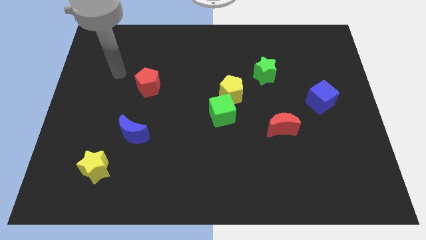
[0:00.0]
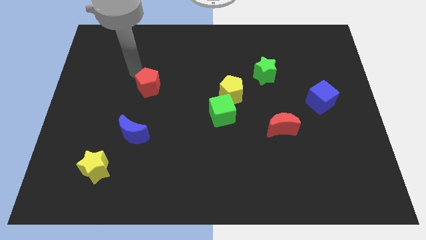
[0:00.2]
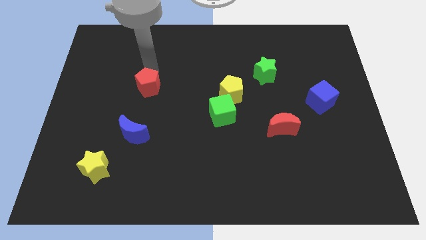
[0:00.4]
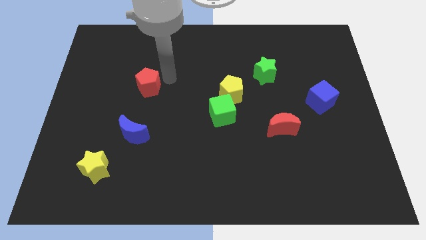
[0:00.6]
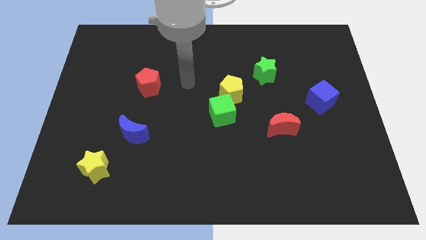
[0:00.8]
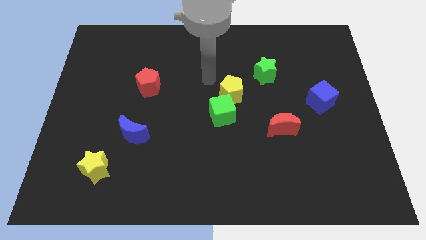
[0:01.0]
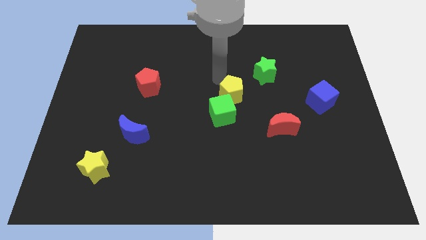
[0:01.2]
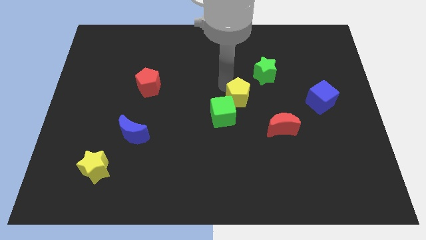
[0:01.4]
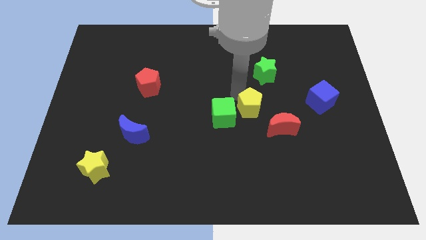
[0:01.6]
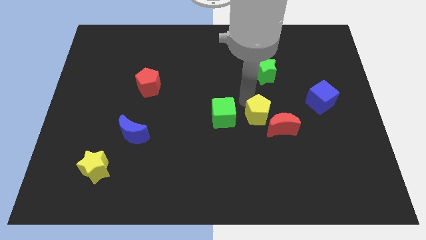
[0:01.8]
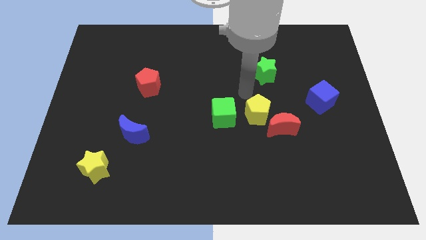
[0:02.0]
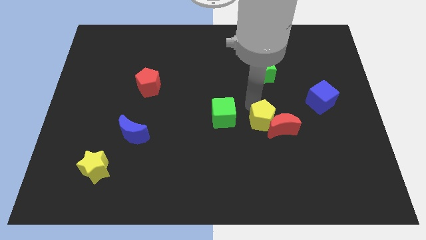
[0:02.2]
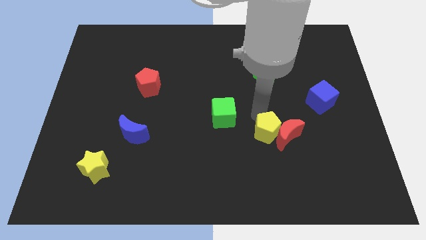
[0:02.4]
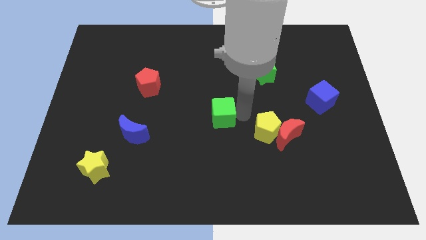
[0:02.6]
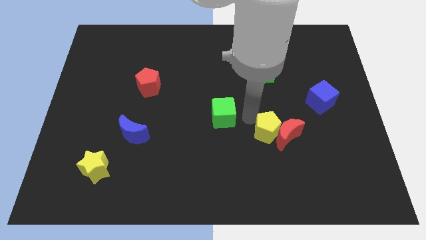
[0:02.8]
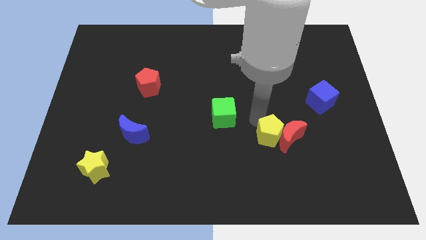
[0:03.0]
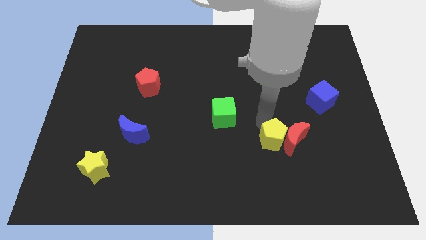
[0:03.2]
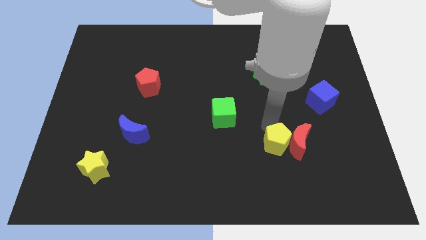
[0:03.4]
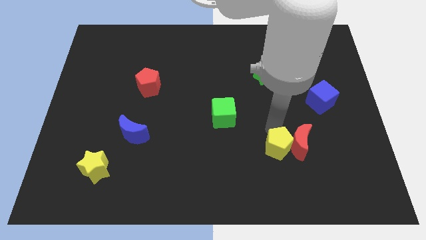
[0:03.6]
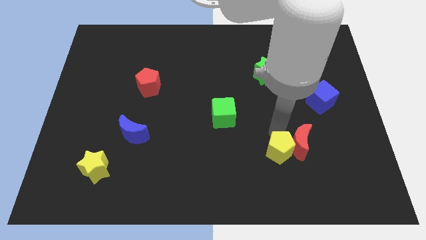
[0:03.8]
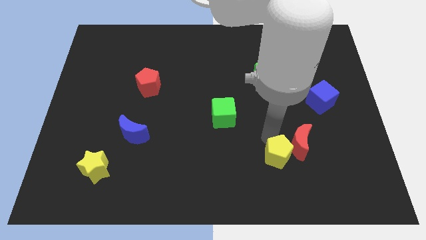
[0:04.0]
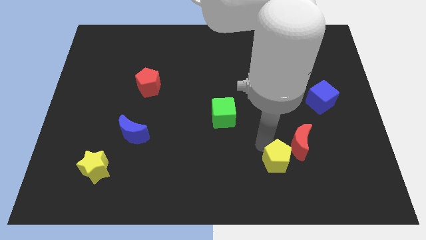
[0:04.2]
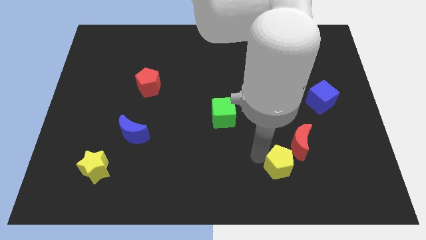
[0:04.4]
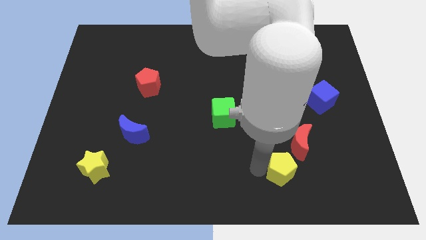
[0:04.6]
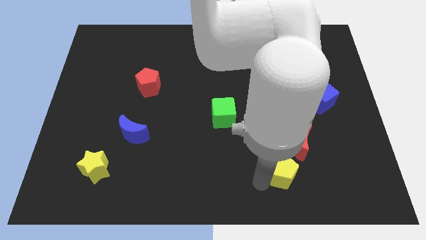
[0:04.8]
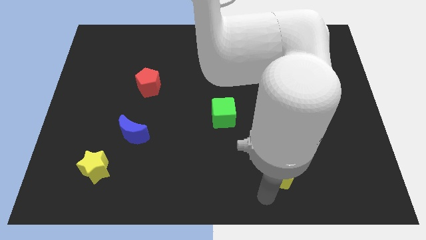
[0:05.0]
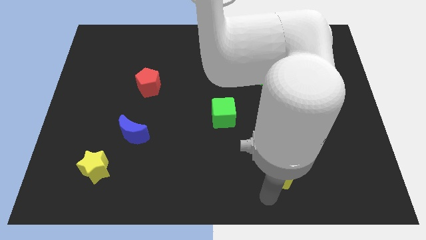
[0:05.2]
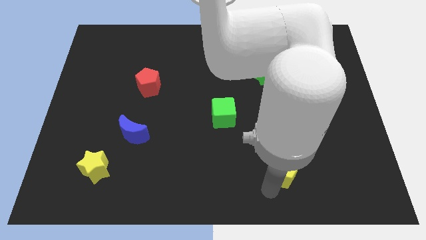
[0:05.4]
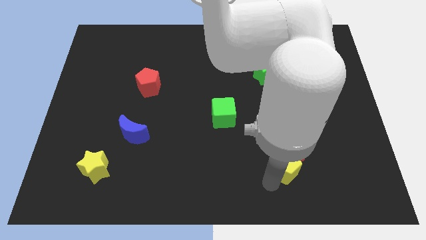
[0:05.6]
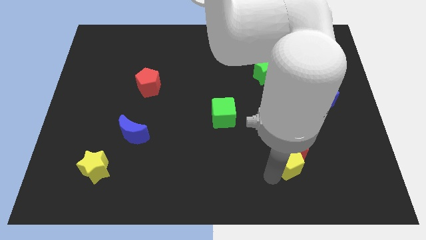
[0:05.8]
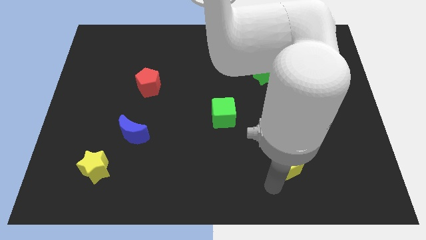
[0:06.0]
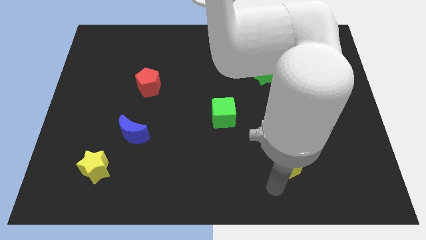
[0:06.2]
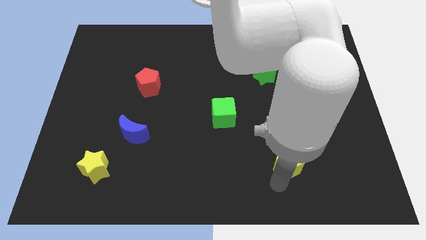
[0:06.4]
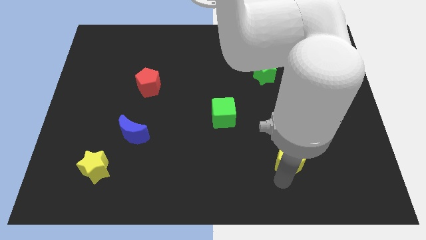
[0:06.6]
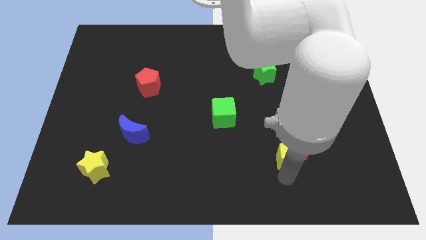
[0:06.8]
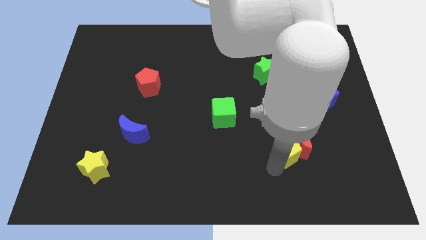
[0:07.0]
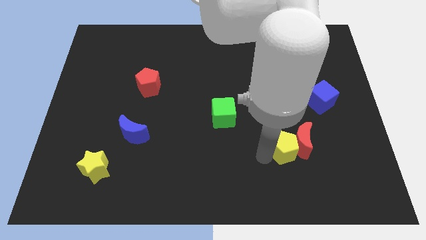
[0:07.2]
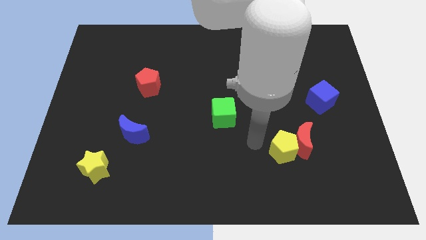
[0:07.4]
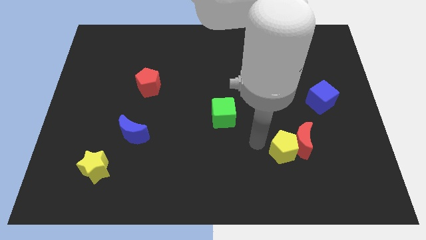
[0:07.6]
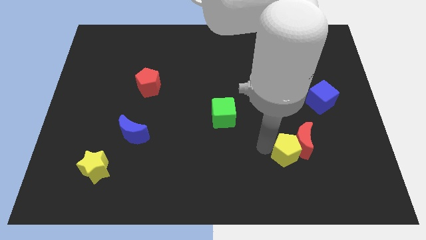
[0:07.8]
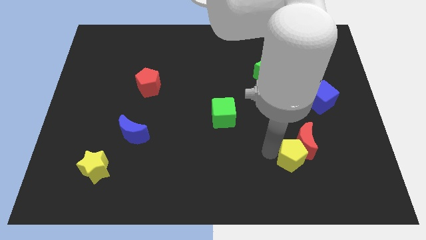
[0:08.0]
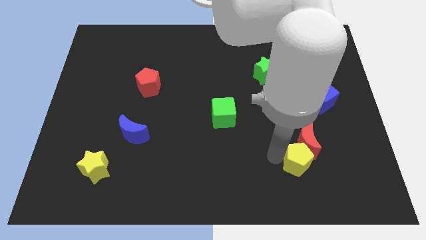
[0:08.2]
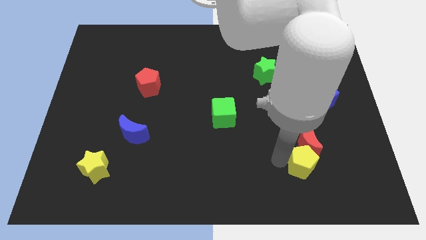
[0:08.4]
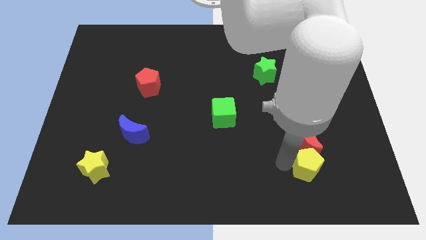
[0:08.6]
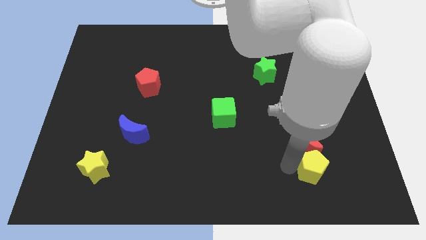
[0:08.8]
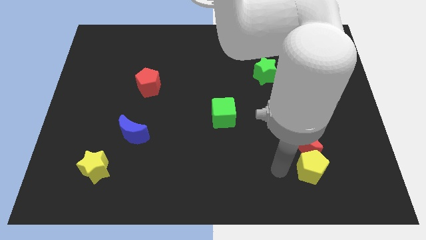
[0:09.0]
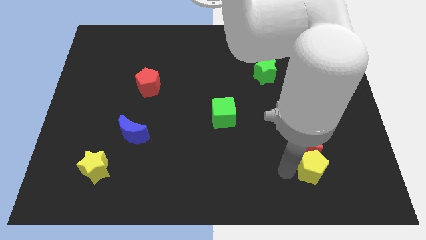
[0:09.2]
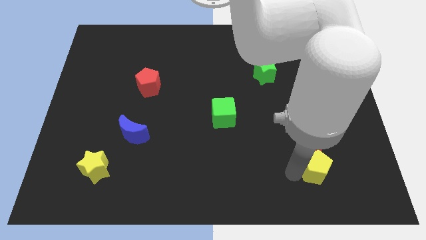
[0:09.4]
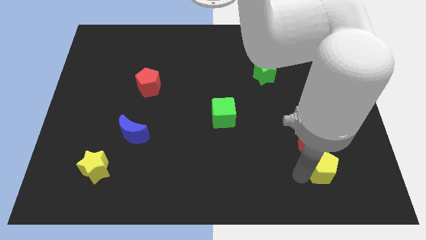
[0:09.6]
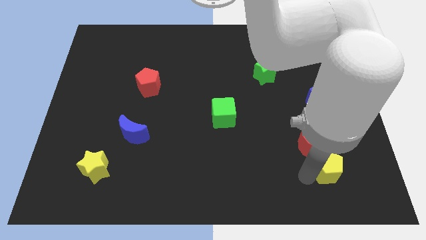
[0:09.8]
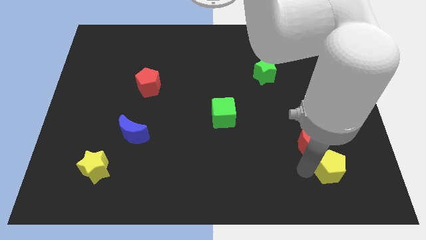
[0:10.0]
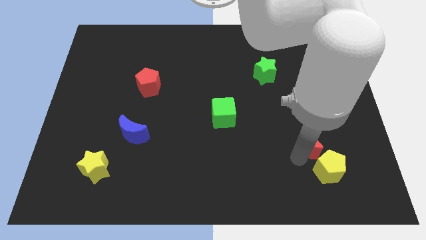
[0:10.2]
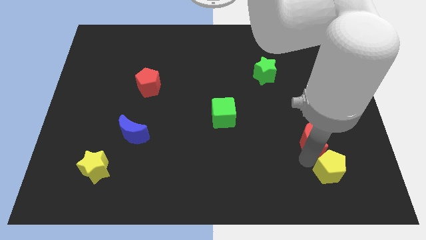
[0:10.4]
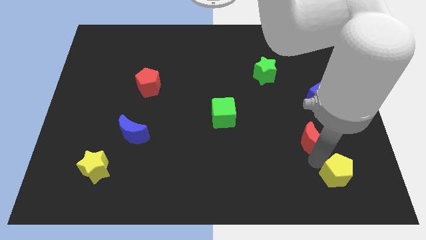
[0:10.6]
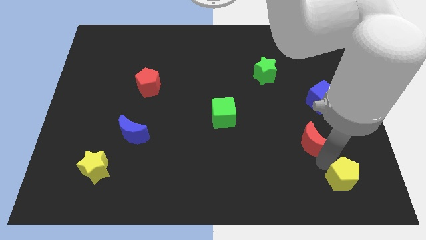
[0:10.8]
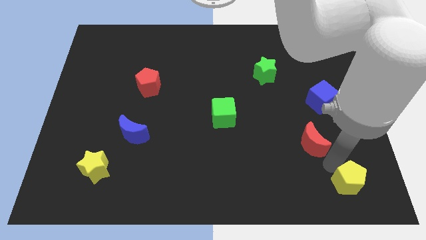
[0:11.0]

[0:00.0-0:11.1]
move the yellow pentagon to the bottom right of the board

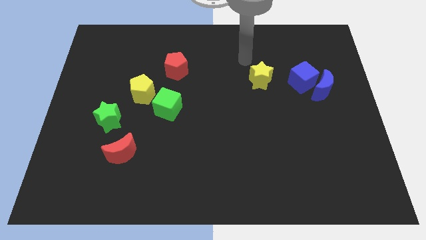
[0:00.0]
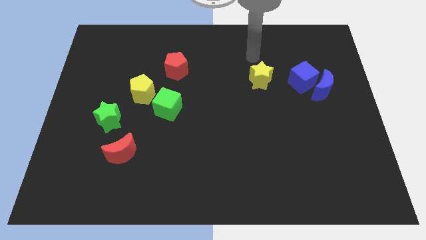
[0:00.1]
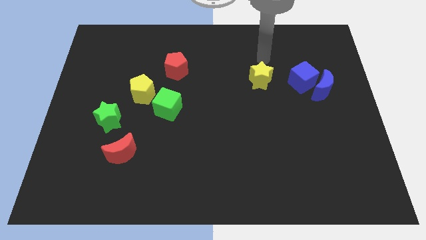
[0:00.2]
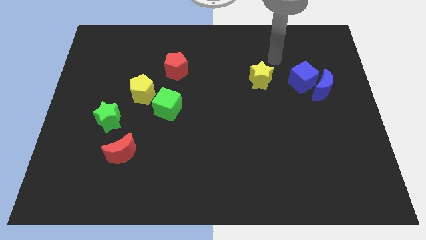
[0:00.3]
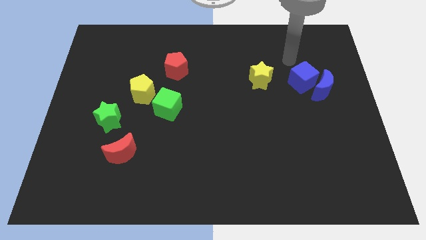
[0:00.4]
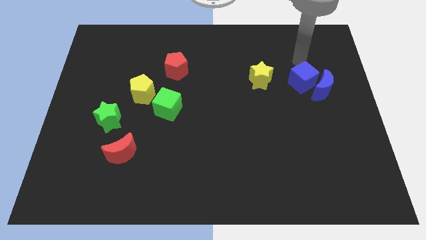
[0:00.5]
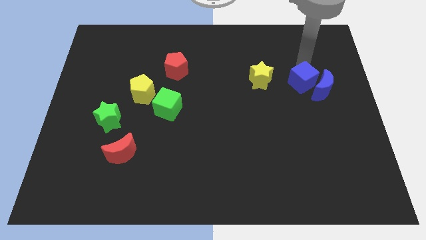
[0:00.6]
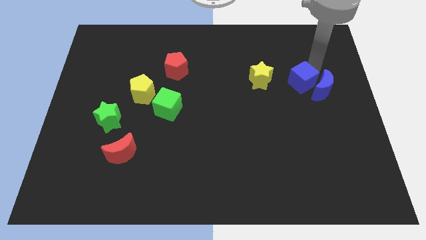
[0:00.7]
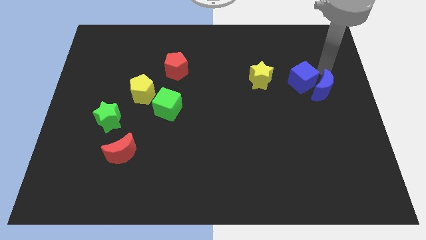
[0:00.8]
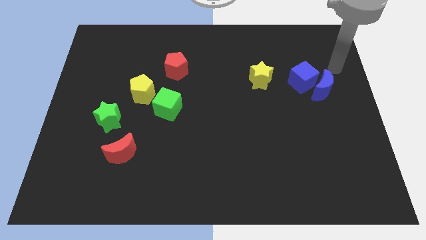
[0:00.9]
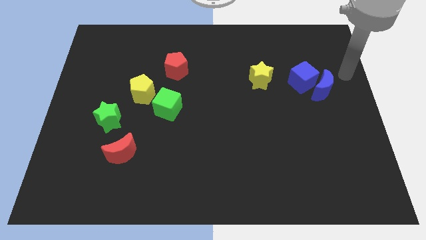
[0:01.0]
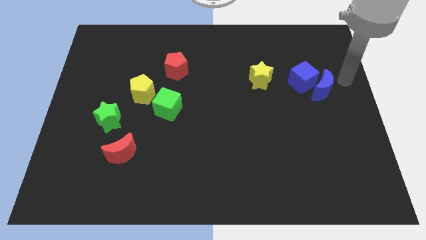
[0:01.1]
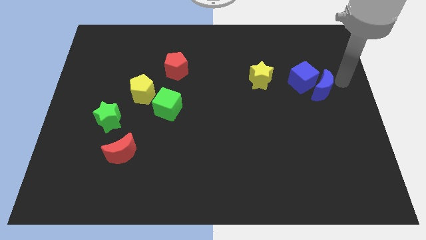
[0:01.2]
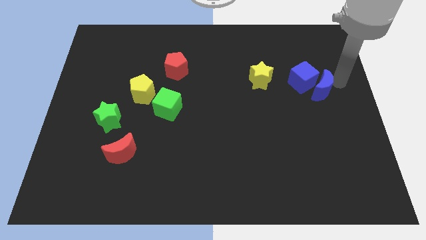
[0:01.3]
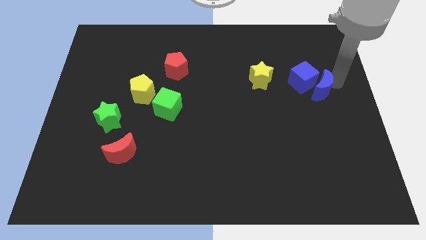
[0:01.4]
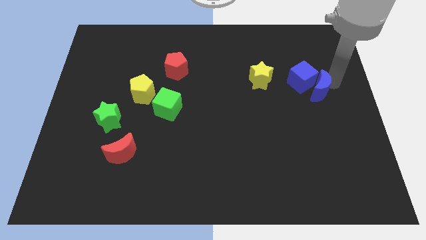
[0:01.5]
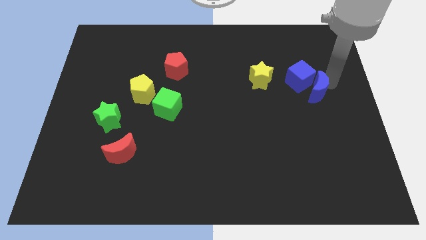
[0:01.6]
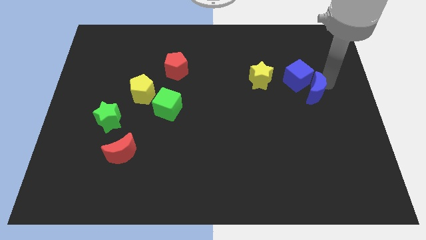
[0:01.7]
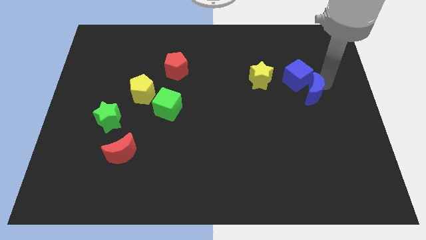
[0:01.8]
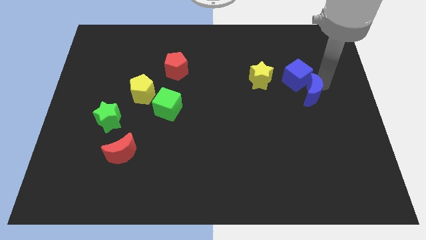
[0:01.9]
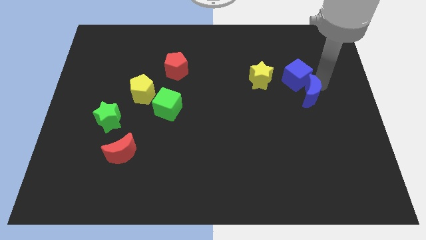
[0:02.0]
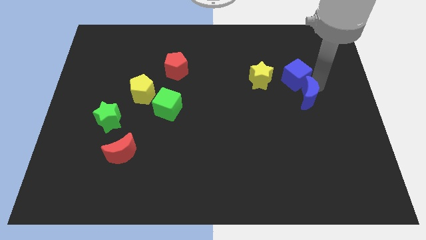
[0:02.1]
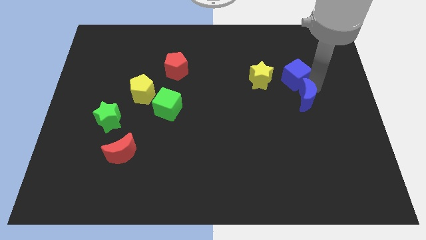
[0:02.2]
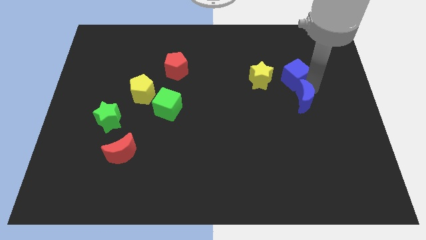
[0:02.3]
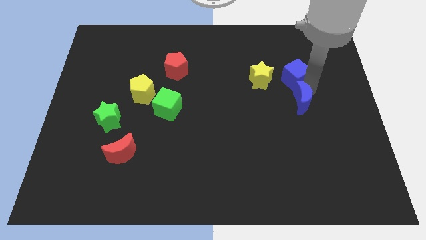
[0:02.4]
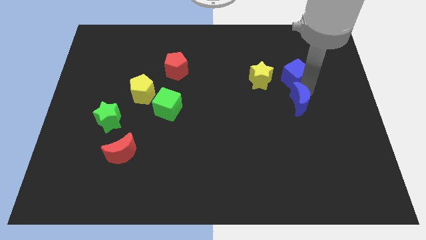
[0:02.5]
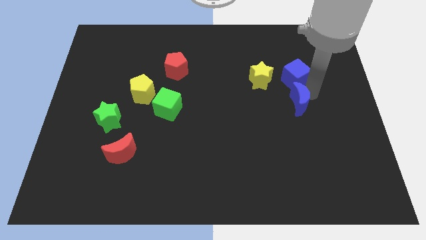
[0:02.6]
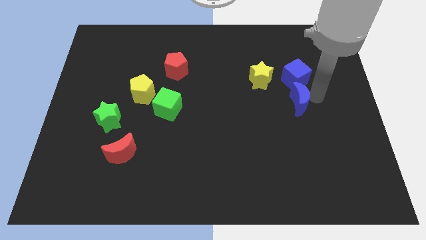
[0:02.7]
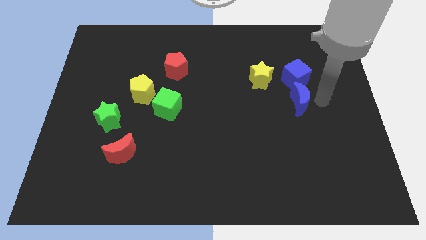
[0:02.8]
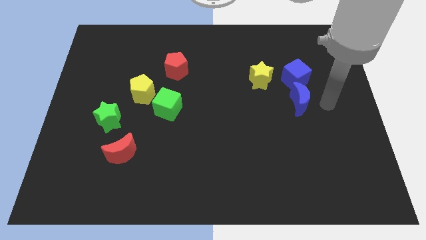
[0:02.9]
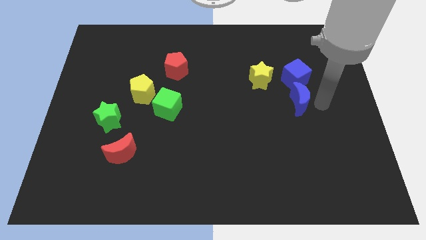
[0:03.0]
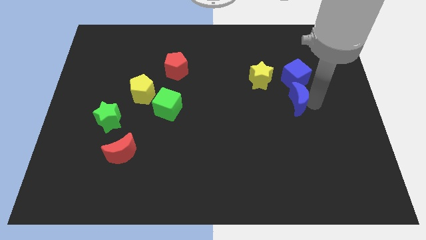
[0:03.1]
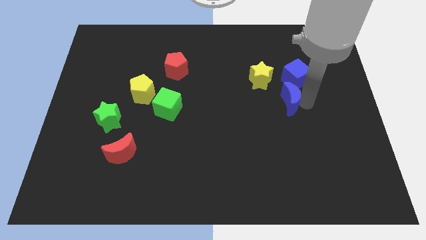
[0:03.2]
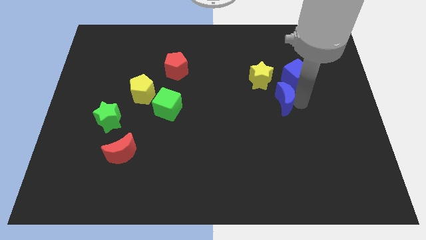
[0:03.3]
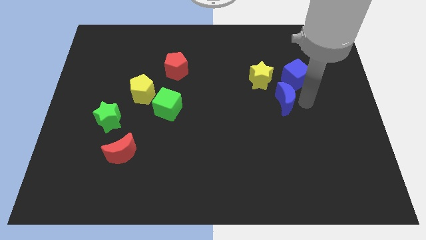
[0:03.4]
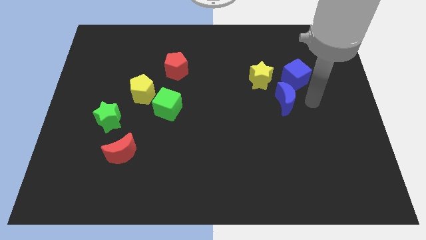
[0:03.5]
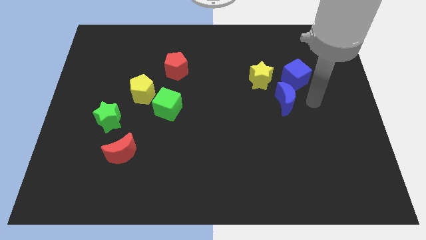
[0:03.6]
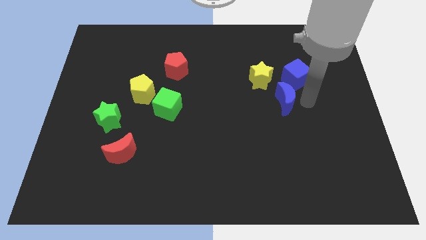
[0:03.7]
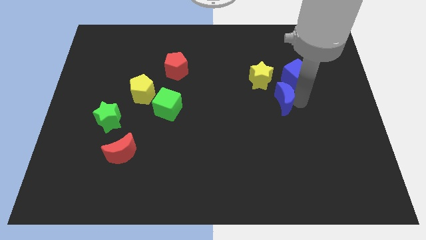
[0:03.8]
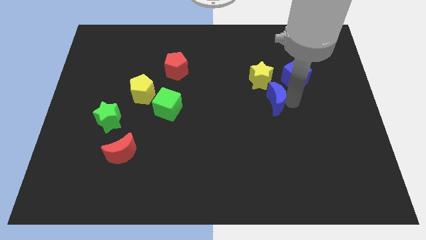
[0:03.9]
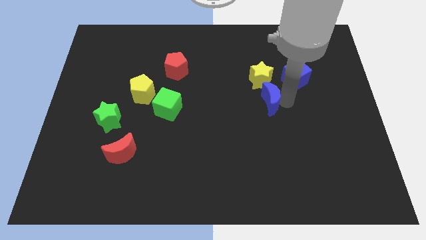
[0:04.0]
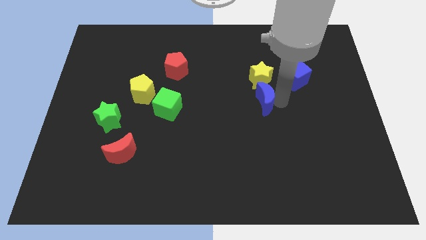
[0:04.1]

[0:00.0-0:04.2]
slide the blue moon to the middle
